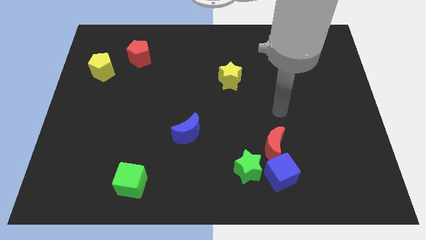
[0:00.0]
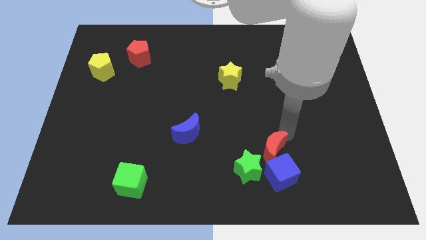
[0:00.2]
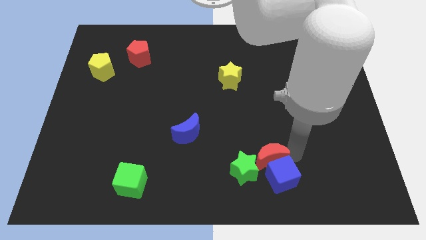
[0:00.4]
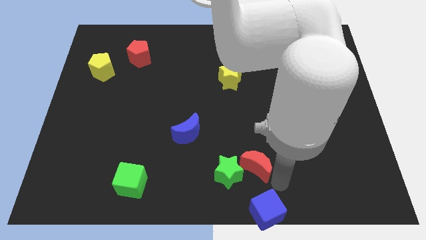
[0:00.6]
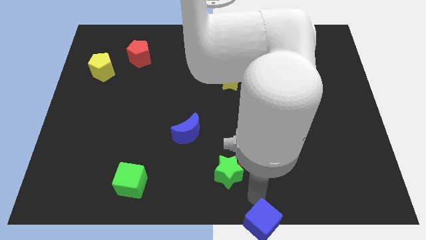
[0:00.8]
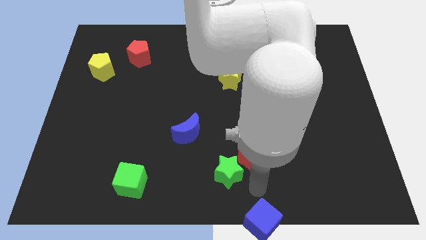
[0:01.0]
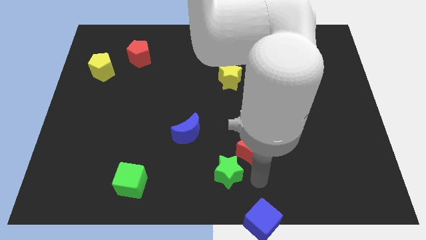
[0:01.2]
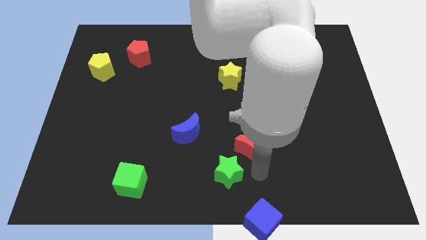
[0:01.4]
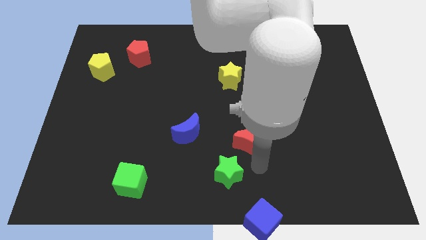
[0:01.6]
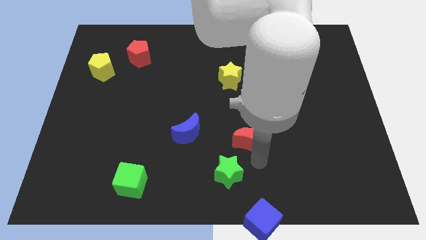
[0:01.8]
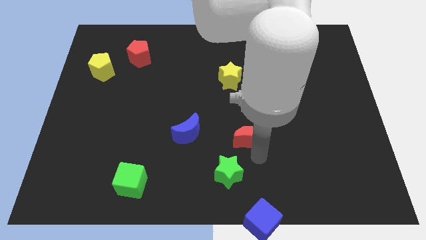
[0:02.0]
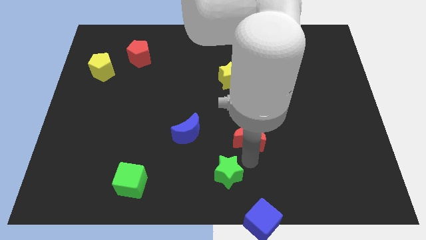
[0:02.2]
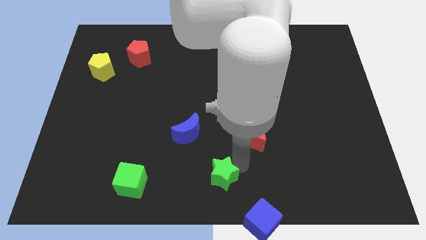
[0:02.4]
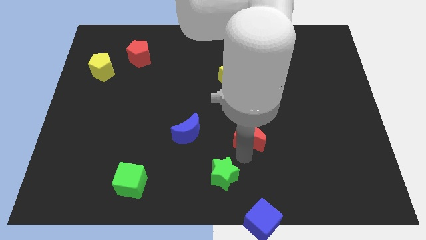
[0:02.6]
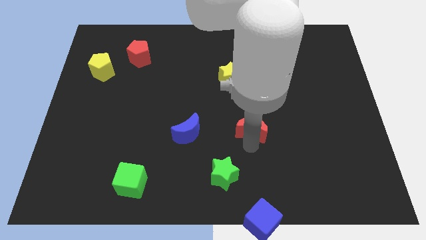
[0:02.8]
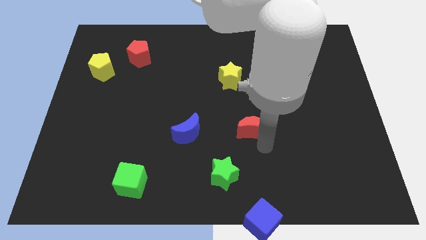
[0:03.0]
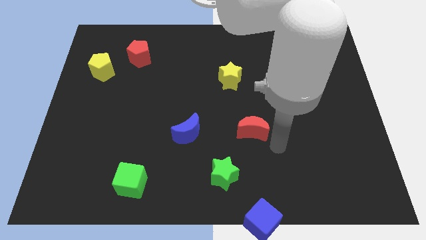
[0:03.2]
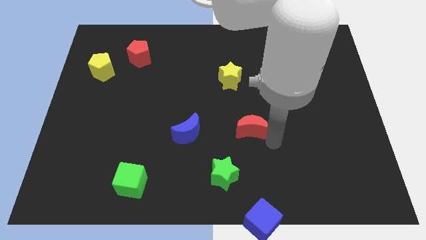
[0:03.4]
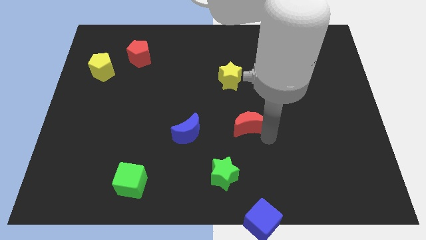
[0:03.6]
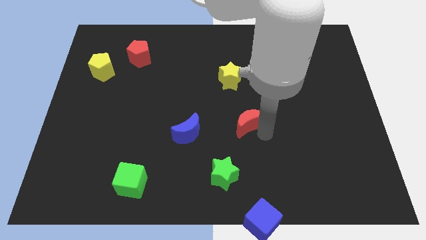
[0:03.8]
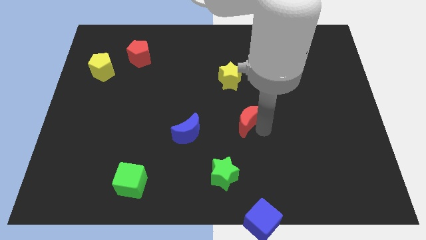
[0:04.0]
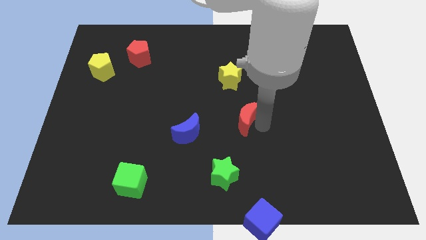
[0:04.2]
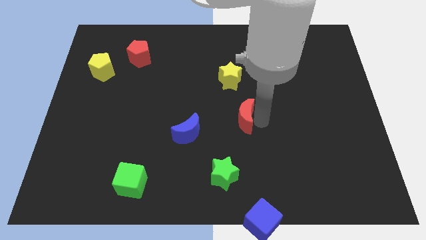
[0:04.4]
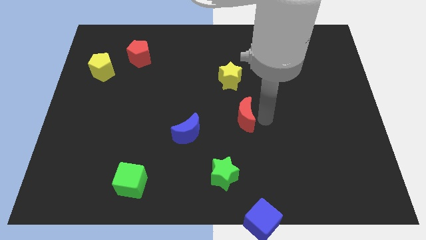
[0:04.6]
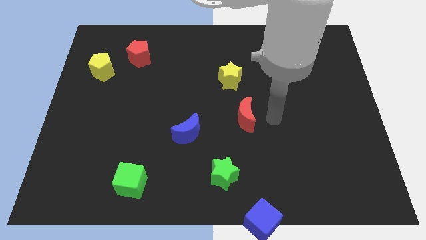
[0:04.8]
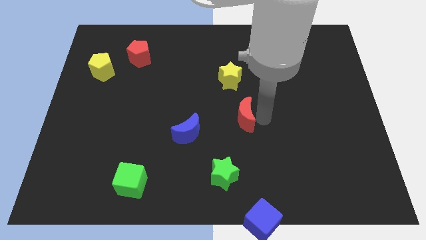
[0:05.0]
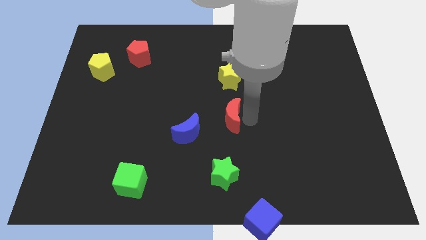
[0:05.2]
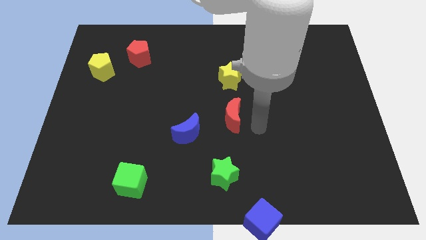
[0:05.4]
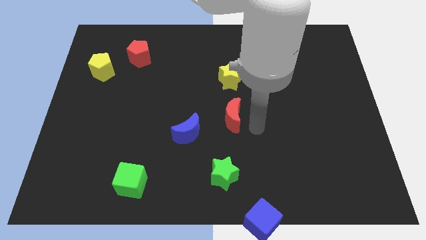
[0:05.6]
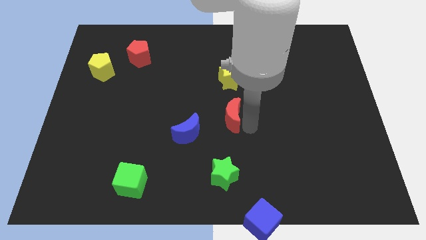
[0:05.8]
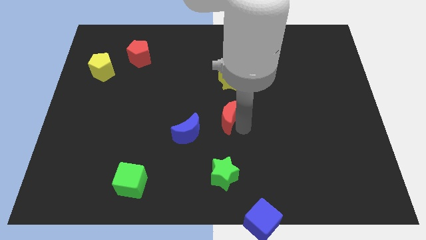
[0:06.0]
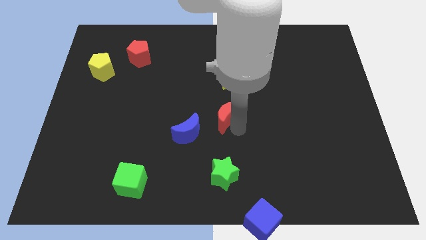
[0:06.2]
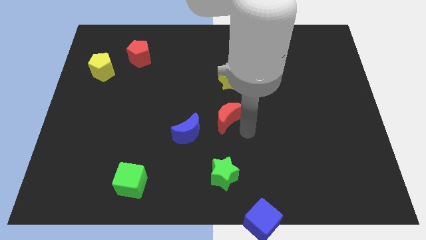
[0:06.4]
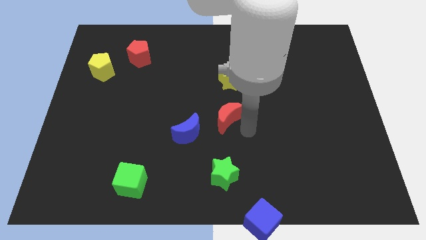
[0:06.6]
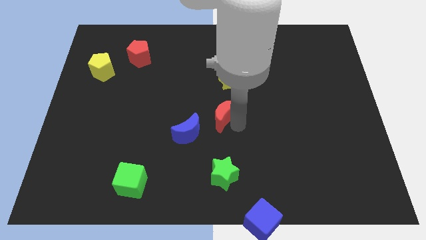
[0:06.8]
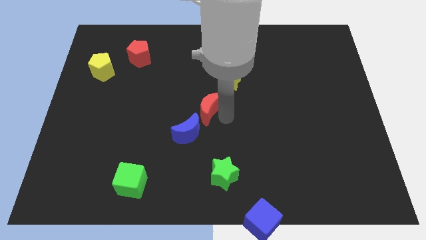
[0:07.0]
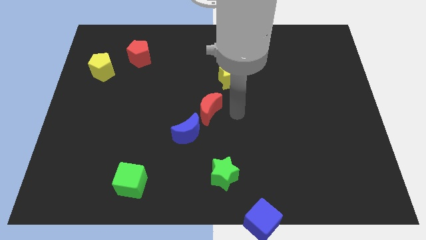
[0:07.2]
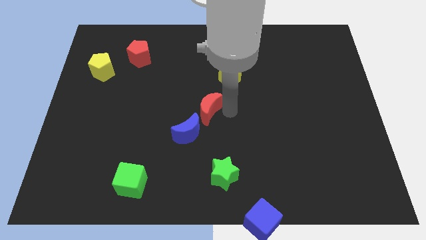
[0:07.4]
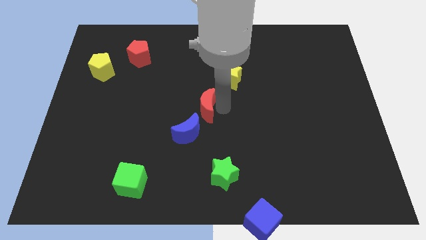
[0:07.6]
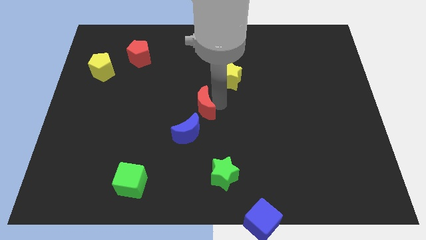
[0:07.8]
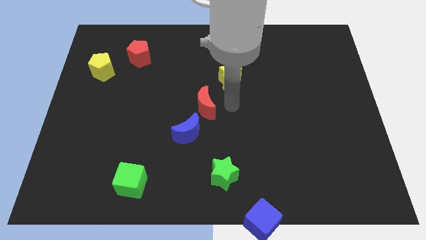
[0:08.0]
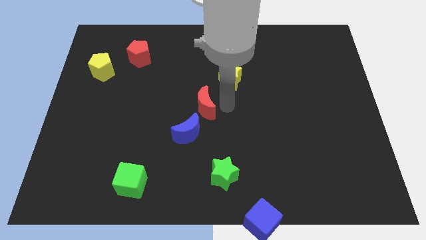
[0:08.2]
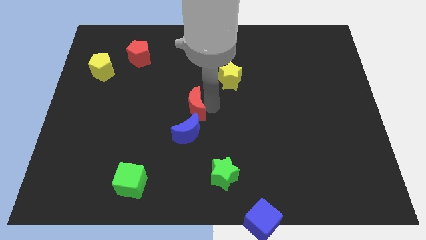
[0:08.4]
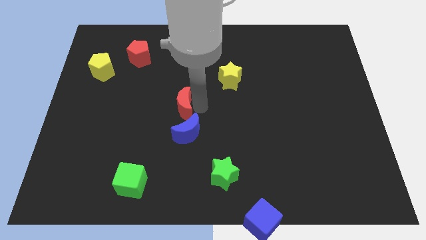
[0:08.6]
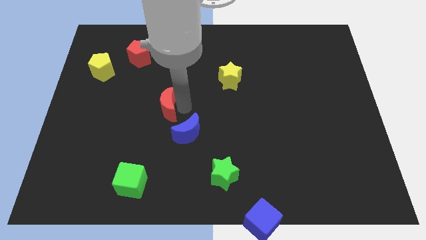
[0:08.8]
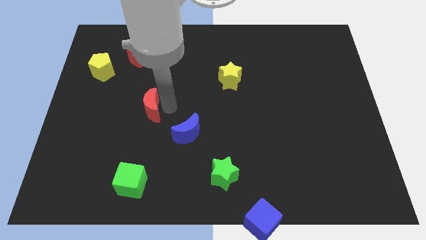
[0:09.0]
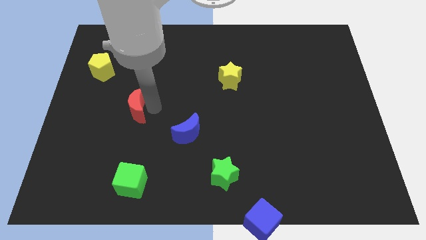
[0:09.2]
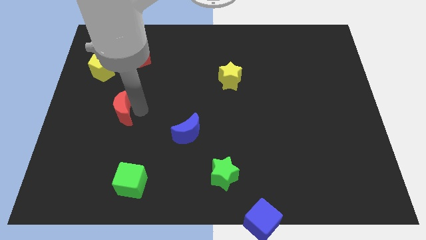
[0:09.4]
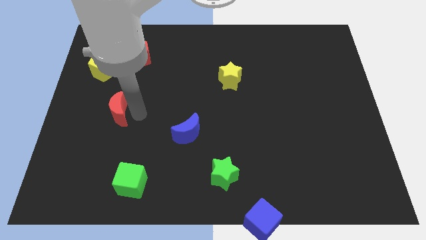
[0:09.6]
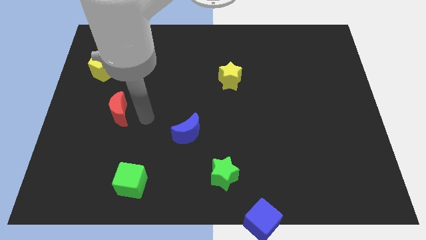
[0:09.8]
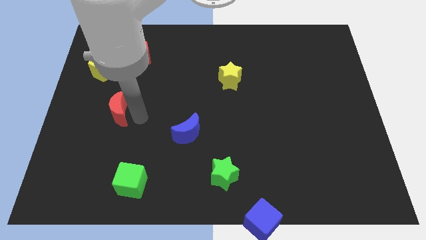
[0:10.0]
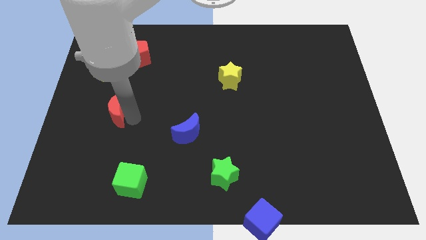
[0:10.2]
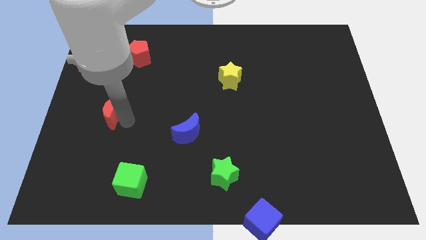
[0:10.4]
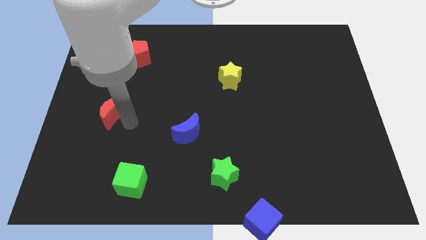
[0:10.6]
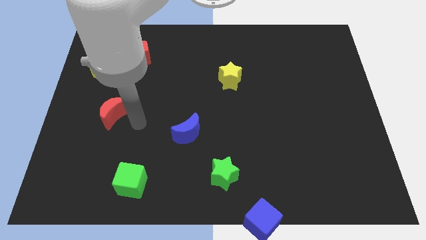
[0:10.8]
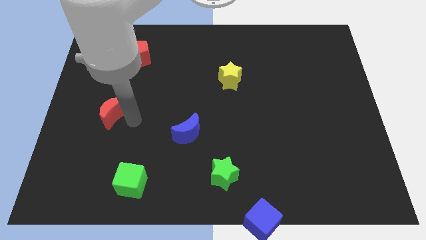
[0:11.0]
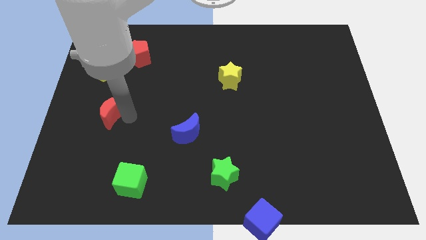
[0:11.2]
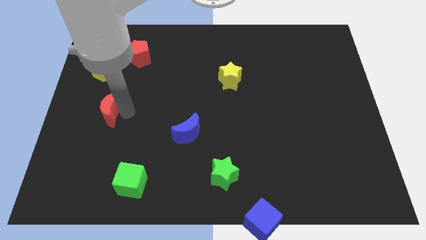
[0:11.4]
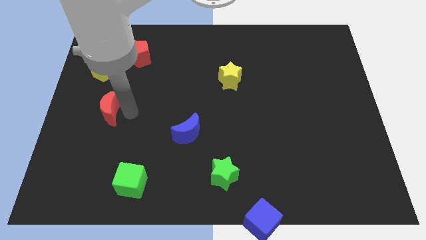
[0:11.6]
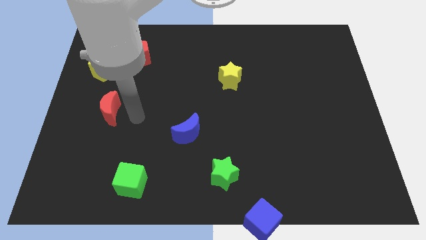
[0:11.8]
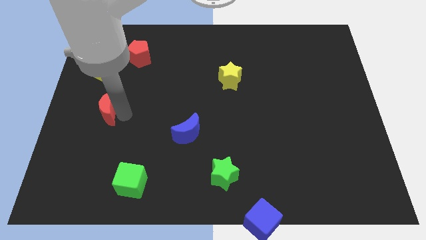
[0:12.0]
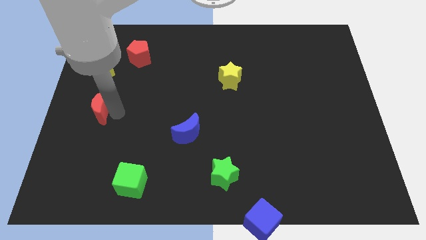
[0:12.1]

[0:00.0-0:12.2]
move the red moon to the center left
